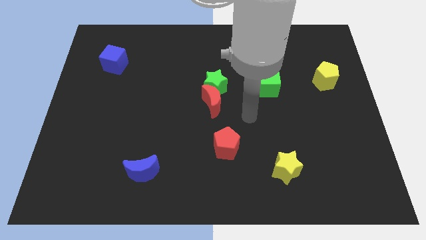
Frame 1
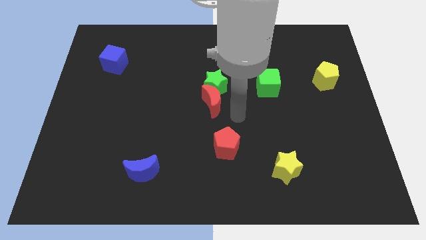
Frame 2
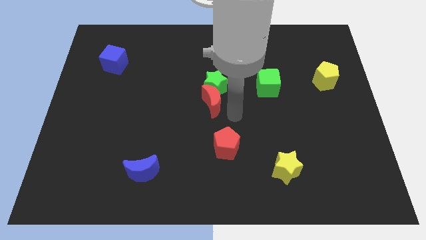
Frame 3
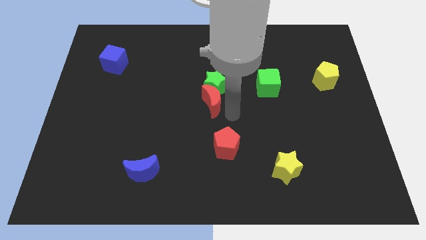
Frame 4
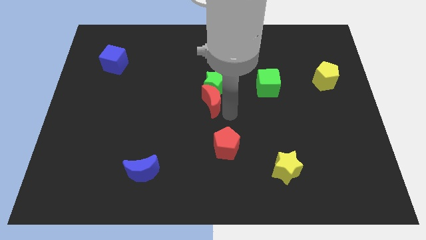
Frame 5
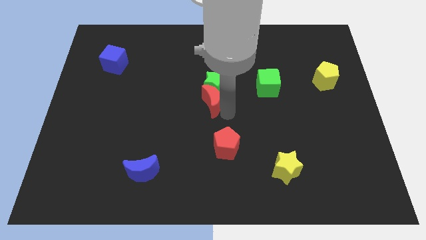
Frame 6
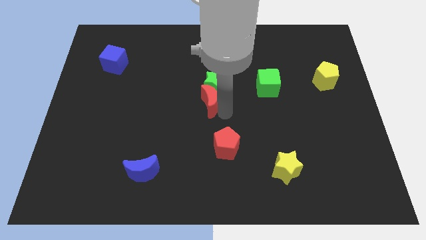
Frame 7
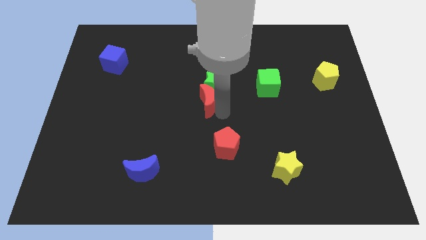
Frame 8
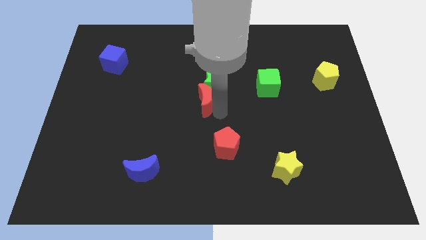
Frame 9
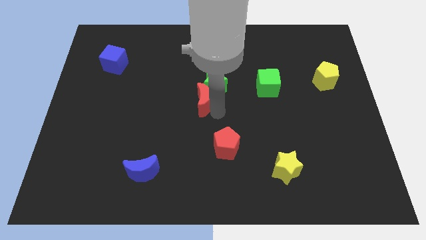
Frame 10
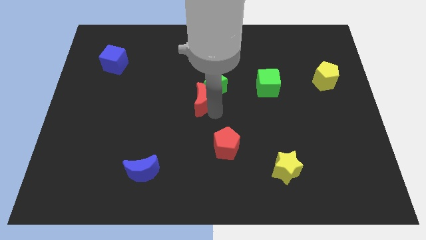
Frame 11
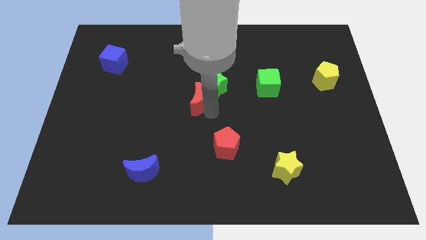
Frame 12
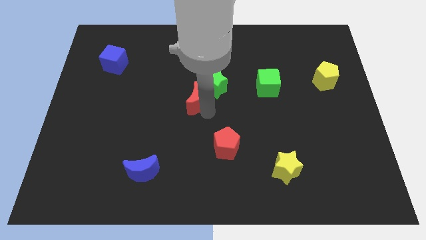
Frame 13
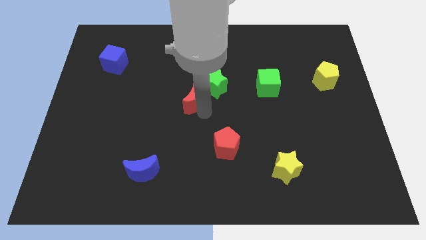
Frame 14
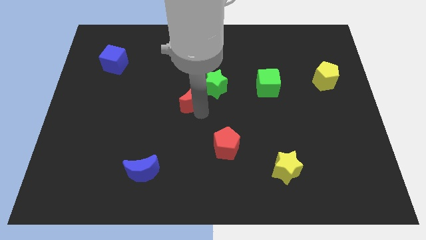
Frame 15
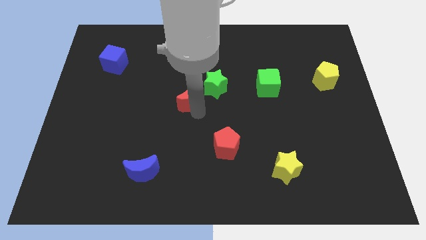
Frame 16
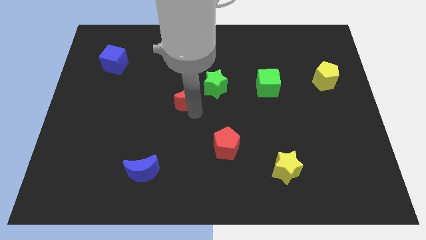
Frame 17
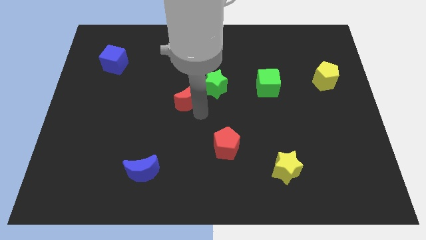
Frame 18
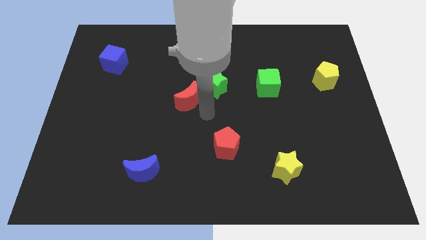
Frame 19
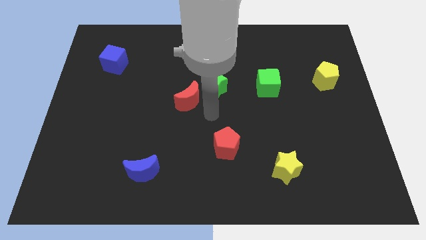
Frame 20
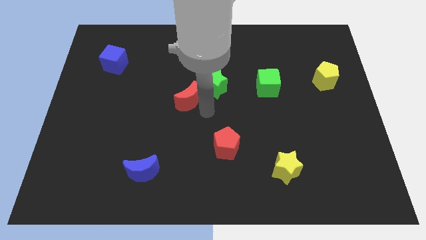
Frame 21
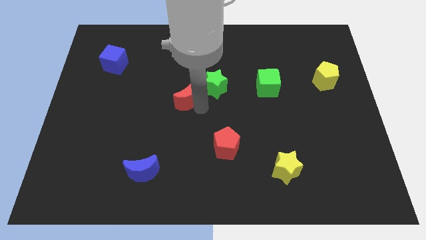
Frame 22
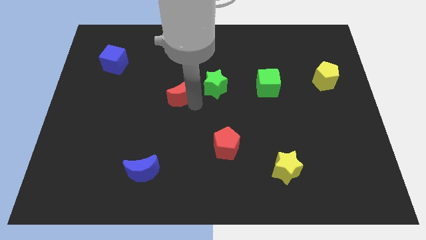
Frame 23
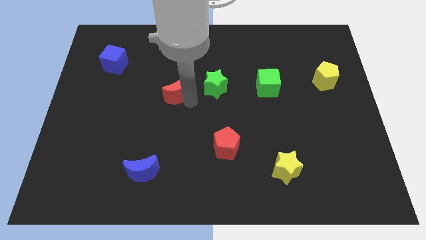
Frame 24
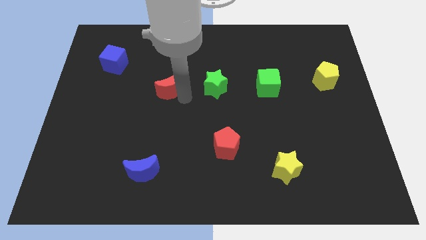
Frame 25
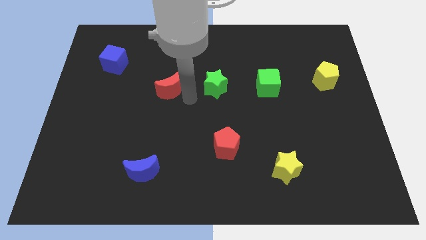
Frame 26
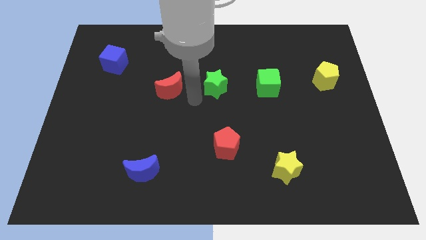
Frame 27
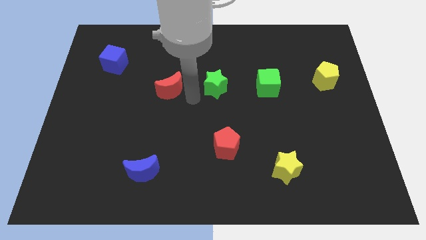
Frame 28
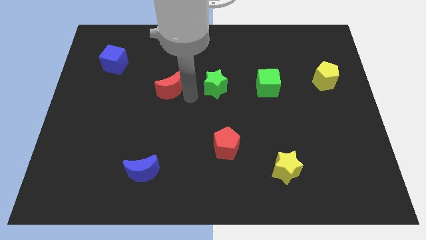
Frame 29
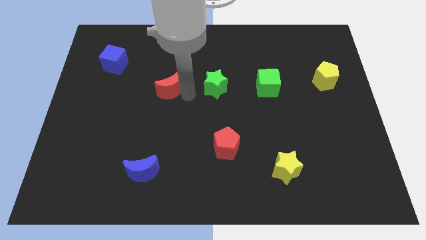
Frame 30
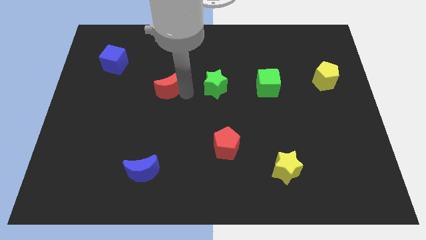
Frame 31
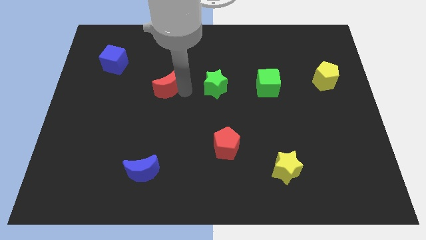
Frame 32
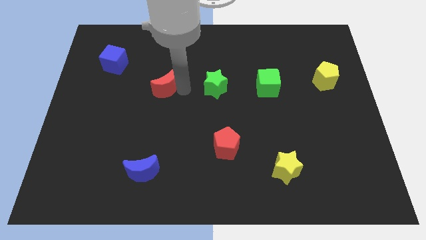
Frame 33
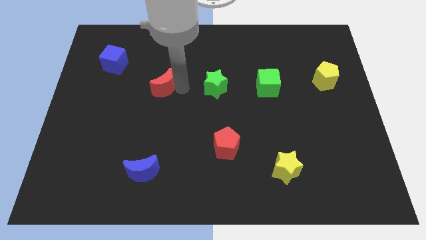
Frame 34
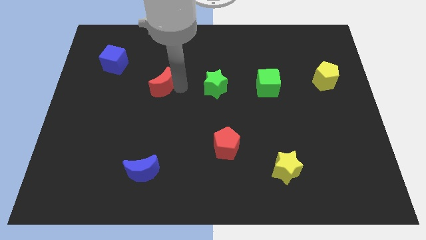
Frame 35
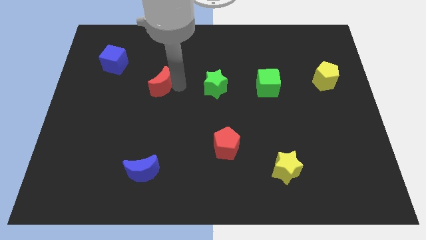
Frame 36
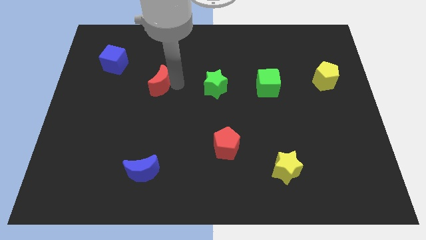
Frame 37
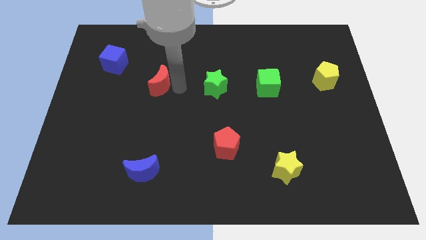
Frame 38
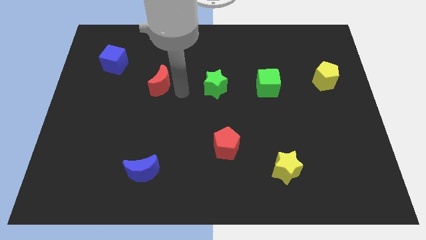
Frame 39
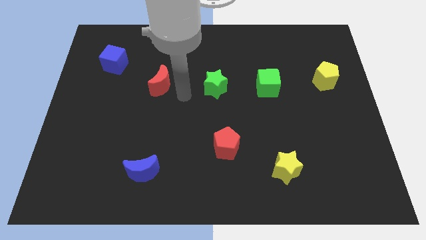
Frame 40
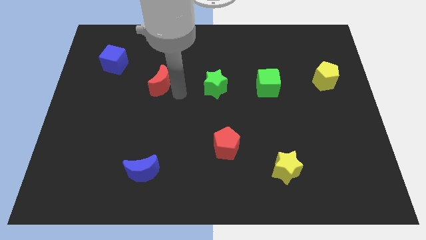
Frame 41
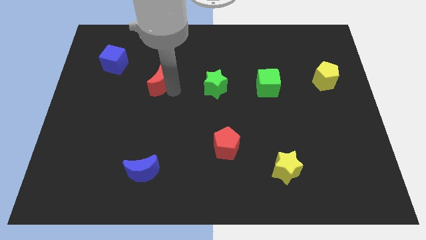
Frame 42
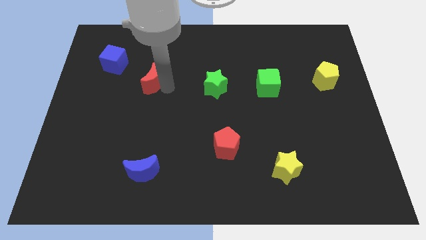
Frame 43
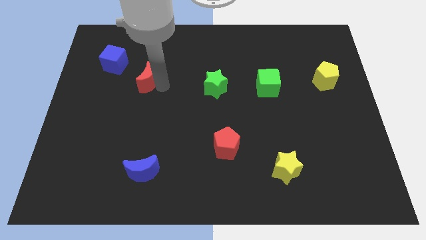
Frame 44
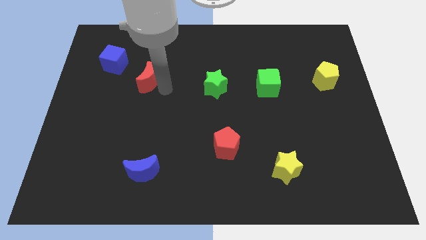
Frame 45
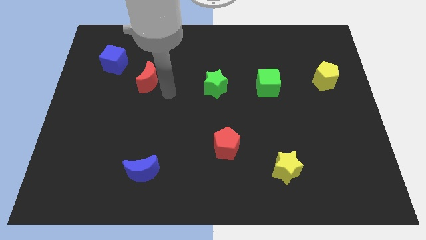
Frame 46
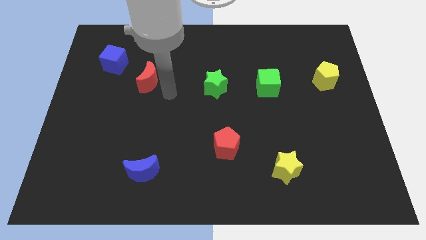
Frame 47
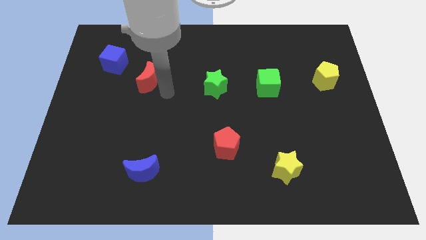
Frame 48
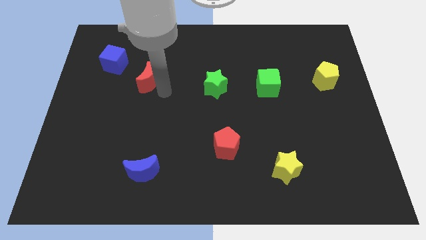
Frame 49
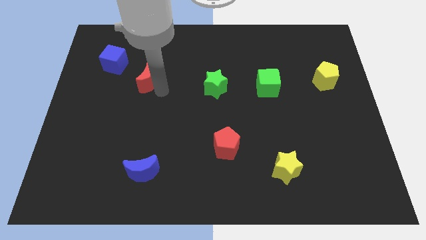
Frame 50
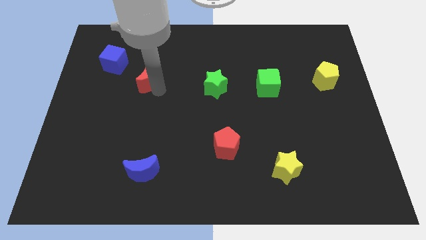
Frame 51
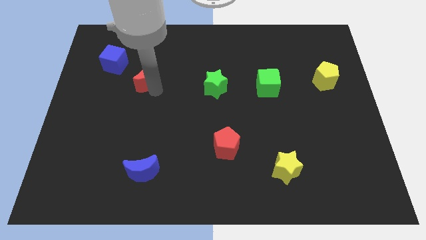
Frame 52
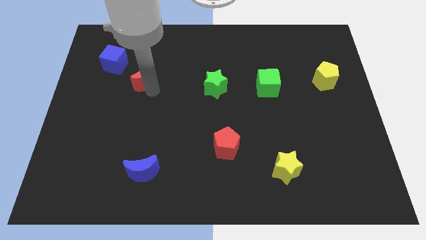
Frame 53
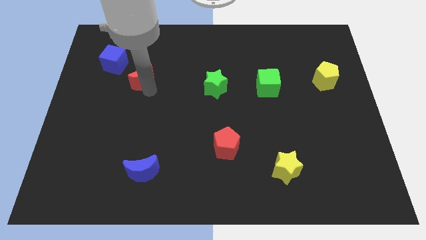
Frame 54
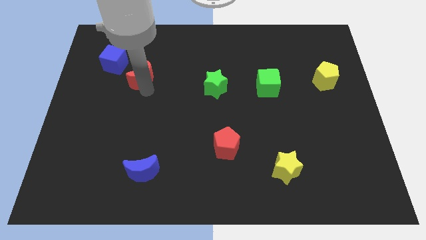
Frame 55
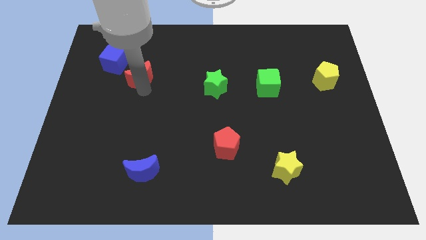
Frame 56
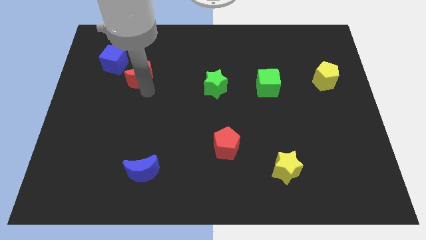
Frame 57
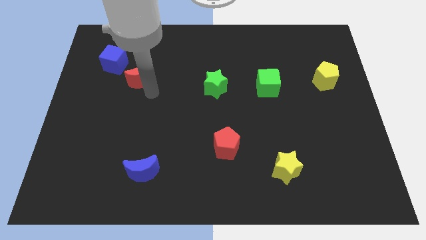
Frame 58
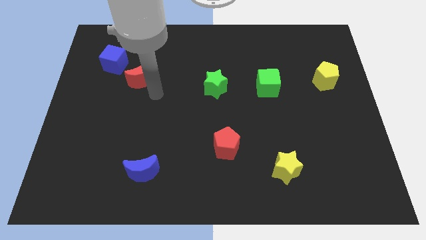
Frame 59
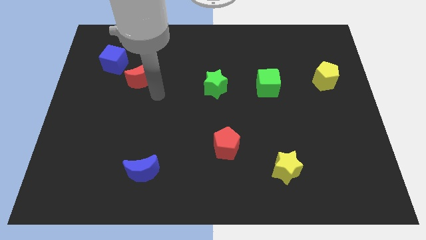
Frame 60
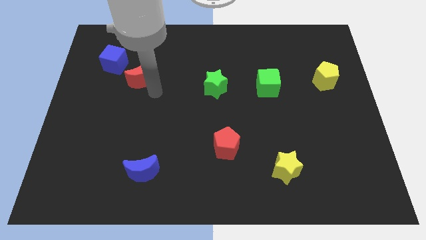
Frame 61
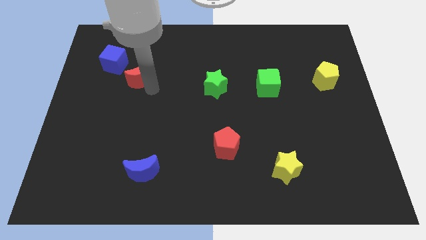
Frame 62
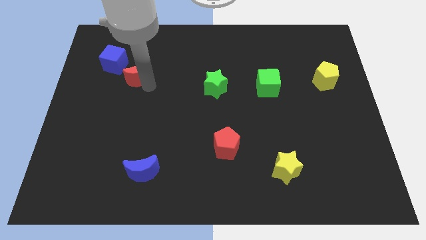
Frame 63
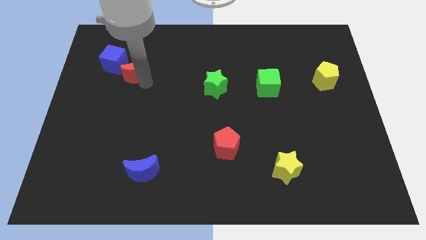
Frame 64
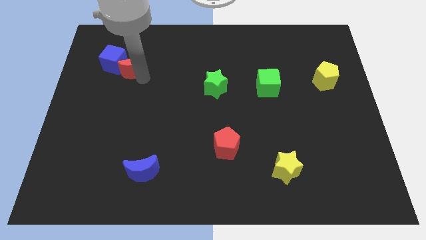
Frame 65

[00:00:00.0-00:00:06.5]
slide the red moon to the blue cube

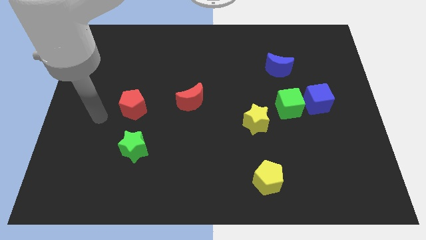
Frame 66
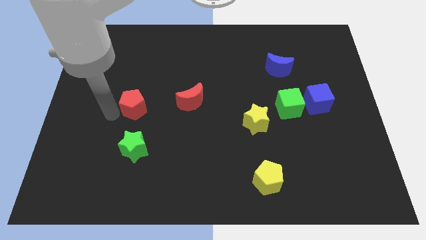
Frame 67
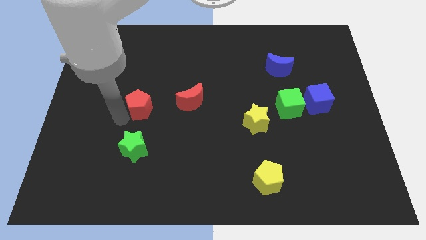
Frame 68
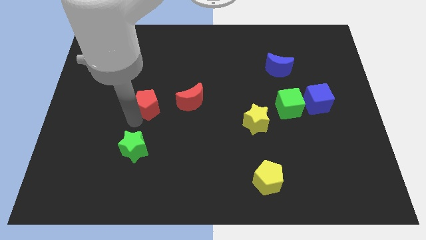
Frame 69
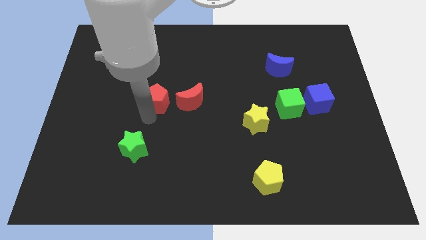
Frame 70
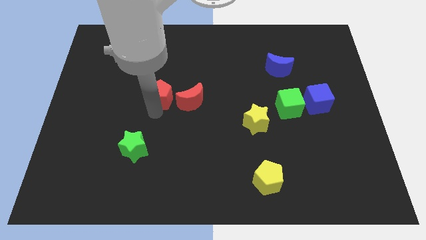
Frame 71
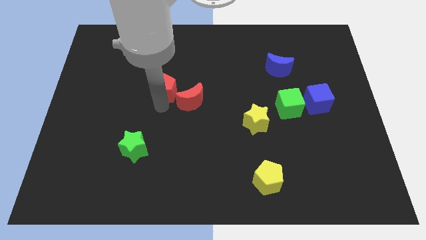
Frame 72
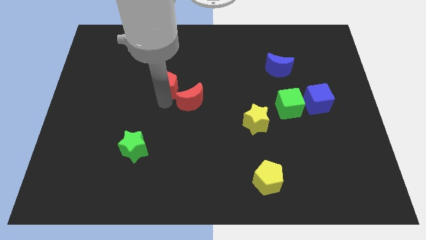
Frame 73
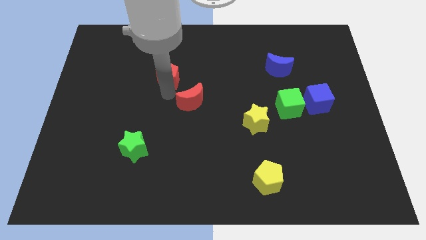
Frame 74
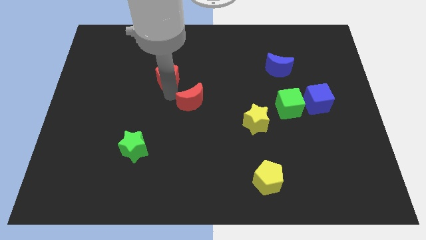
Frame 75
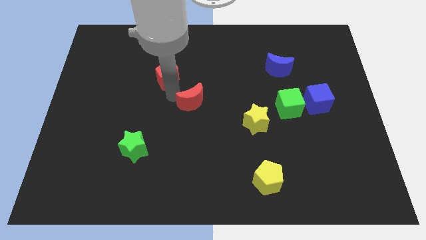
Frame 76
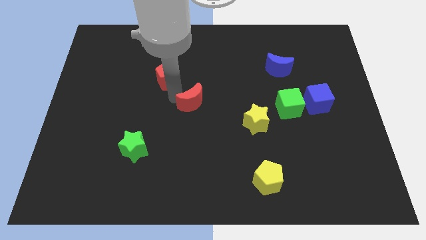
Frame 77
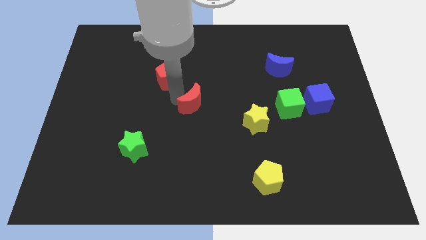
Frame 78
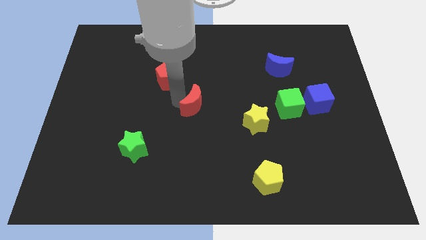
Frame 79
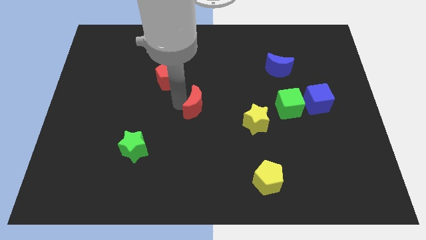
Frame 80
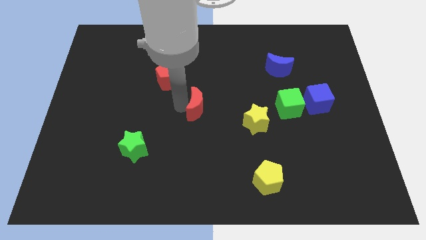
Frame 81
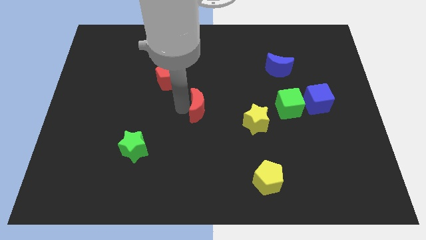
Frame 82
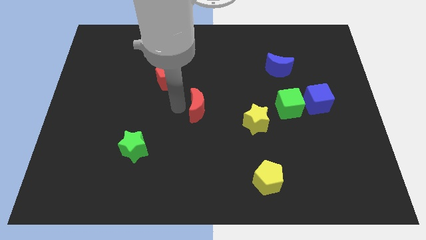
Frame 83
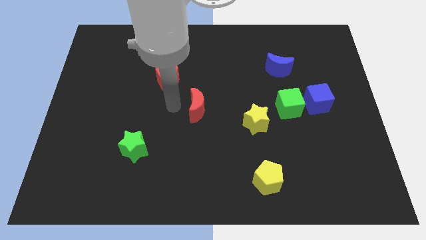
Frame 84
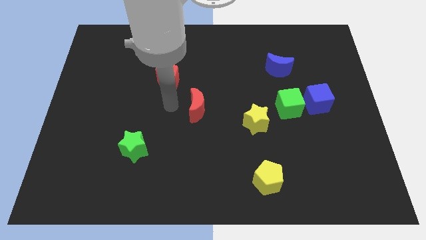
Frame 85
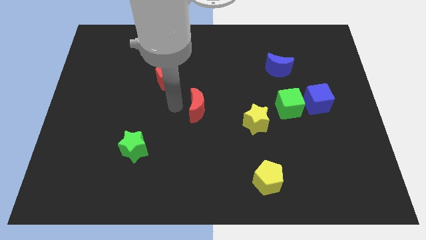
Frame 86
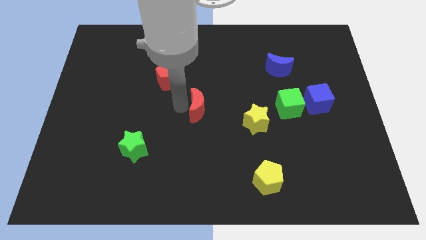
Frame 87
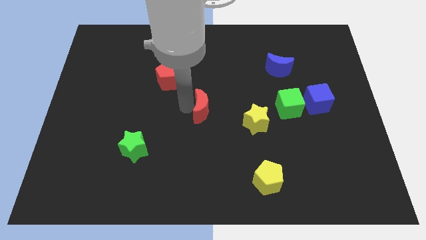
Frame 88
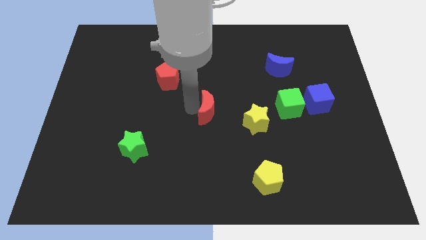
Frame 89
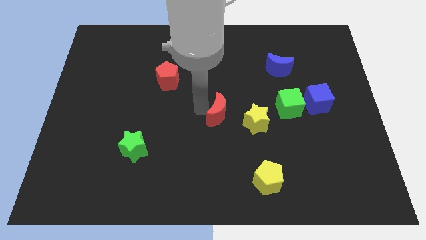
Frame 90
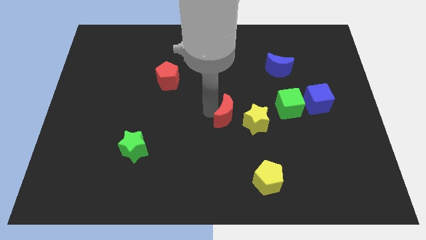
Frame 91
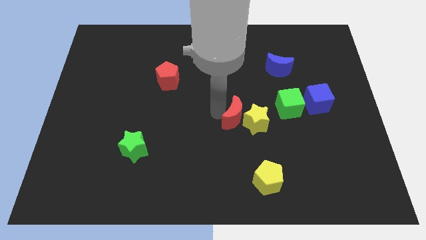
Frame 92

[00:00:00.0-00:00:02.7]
put the red moon close to the yellow star
